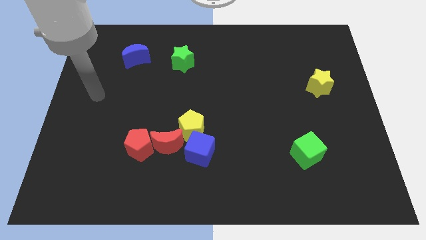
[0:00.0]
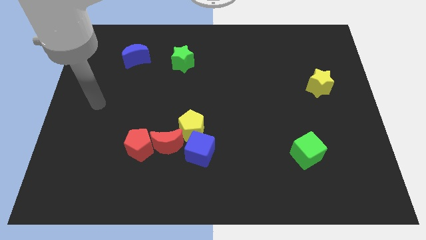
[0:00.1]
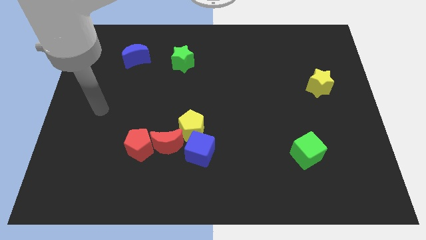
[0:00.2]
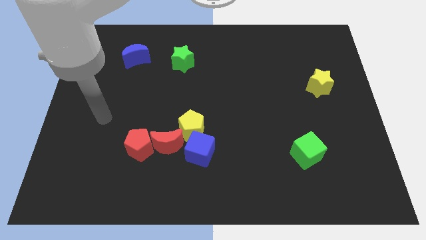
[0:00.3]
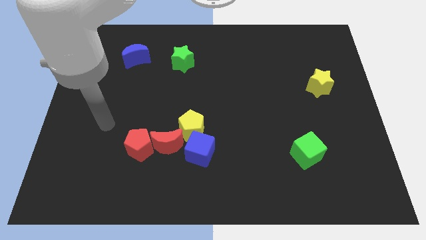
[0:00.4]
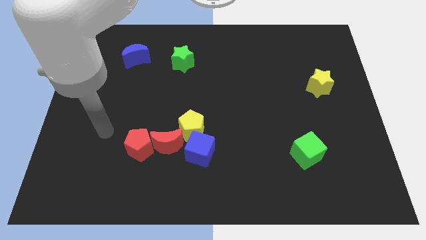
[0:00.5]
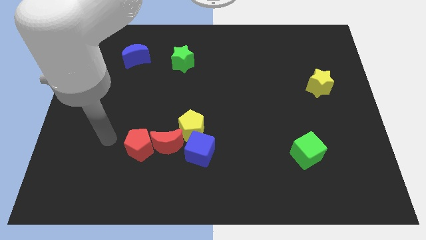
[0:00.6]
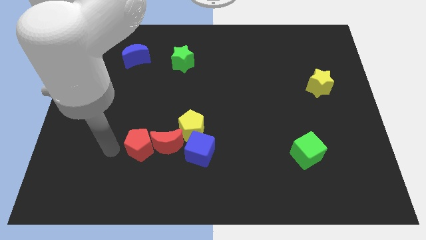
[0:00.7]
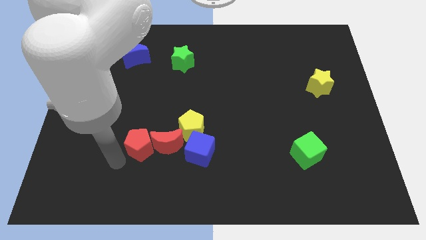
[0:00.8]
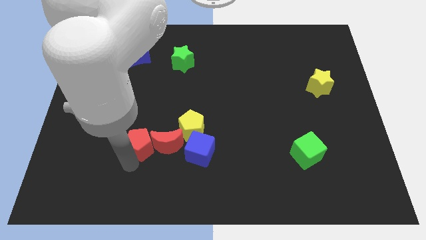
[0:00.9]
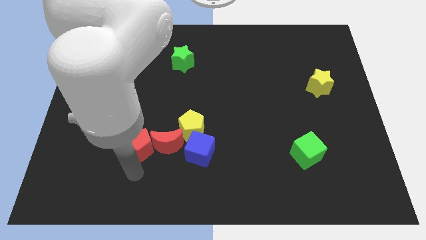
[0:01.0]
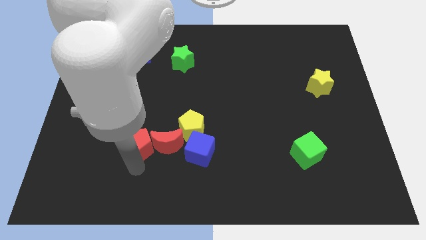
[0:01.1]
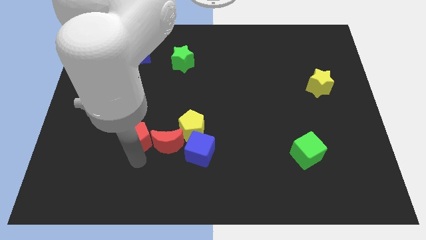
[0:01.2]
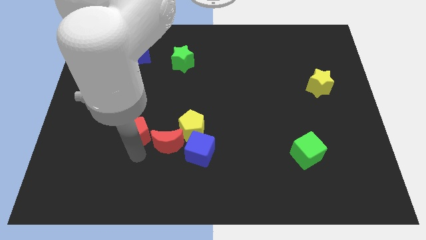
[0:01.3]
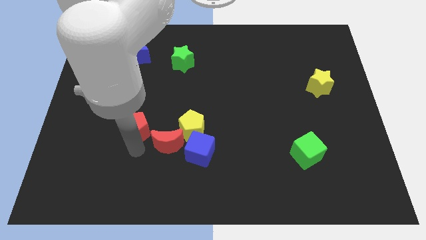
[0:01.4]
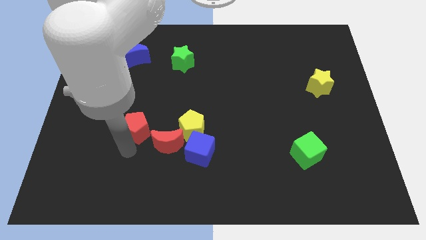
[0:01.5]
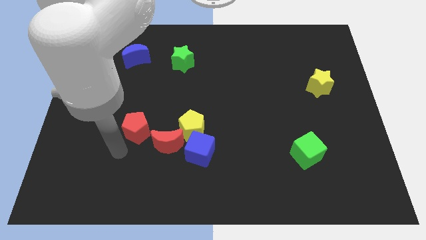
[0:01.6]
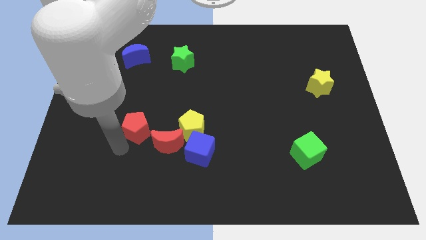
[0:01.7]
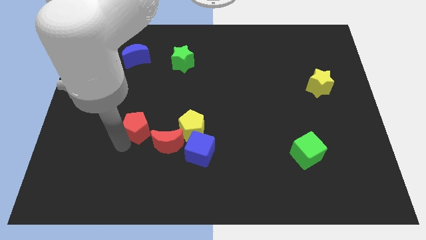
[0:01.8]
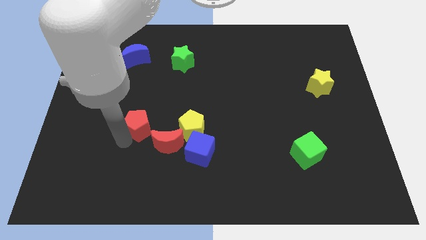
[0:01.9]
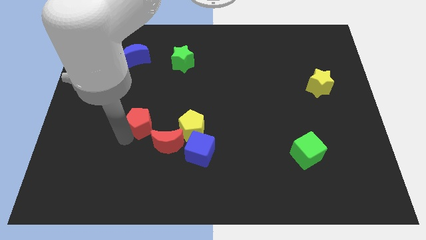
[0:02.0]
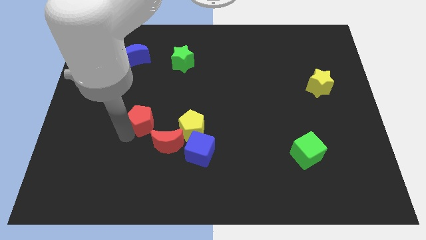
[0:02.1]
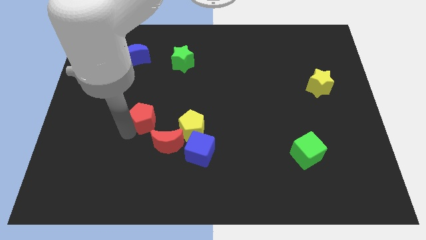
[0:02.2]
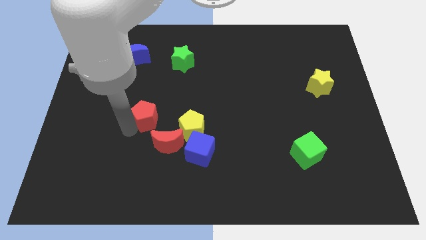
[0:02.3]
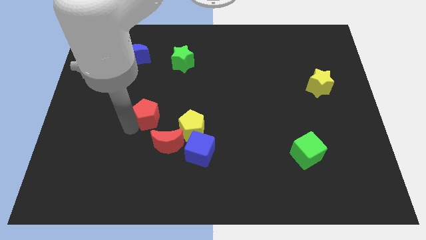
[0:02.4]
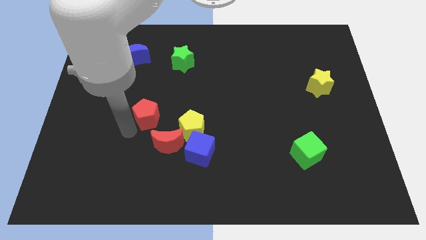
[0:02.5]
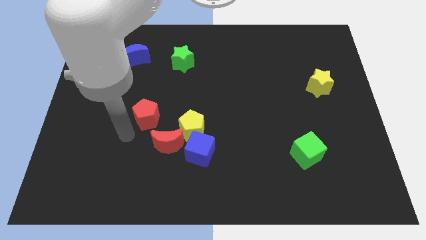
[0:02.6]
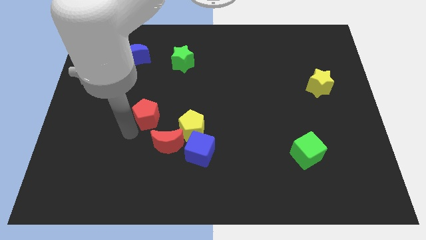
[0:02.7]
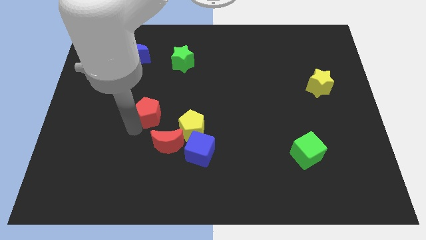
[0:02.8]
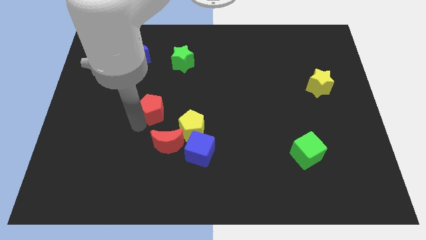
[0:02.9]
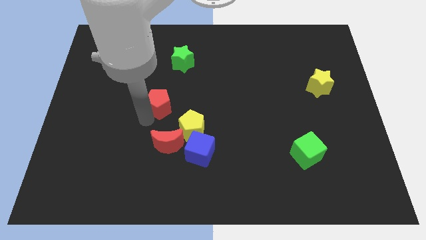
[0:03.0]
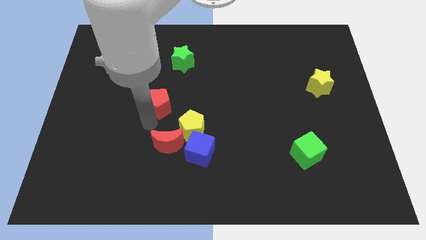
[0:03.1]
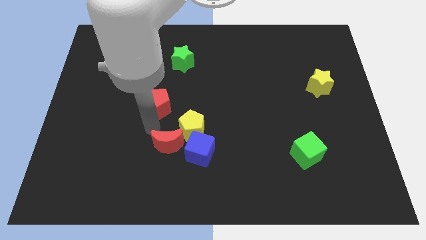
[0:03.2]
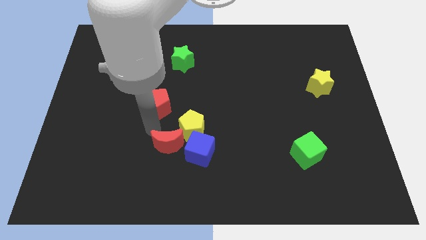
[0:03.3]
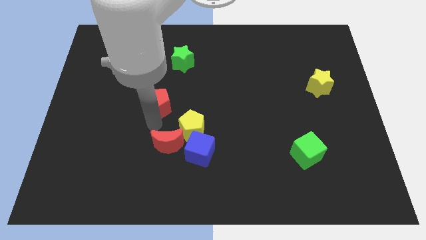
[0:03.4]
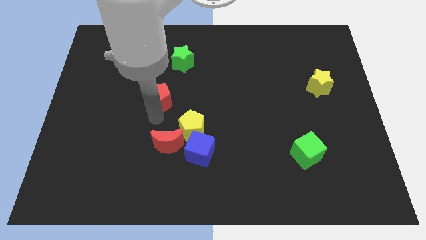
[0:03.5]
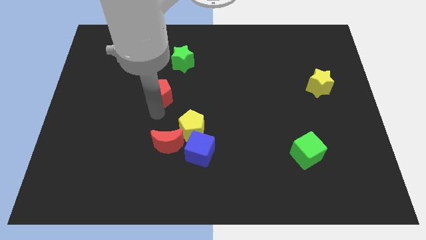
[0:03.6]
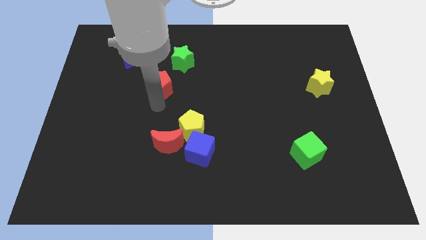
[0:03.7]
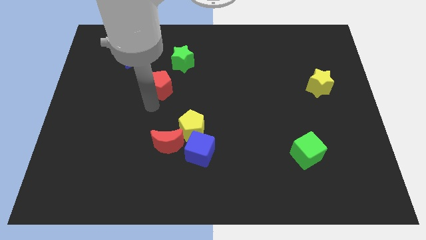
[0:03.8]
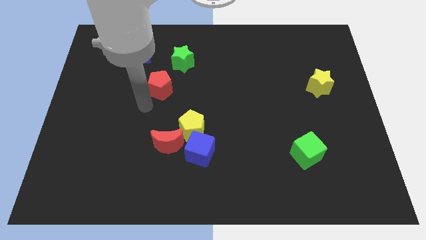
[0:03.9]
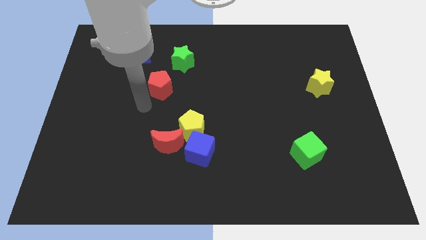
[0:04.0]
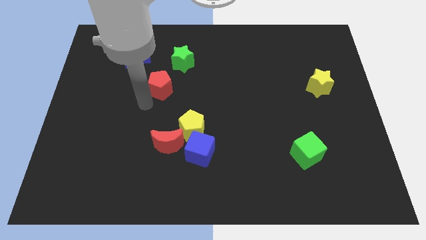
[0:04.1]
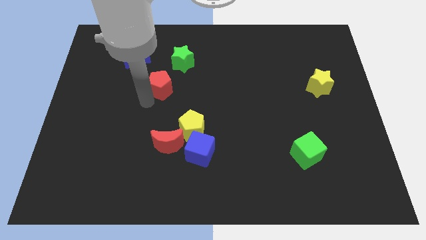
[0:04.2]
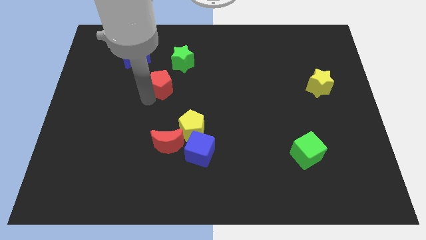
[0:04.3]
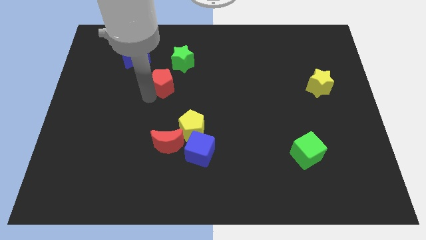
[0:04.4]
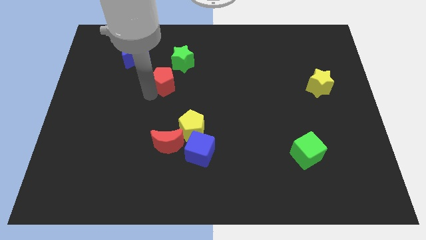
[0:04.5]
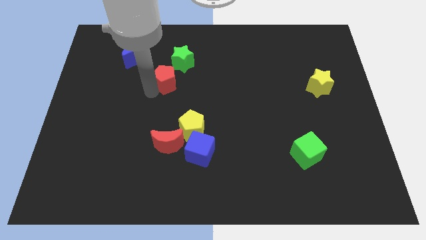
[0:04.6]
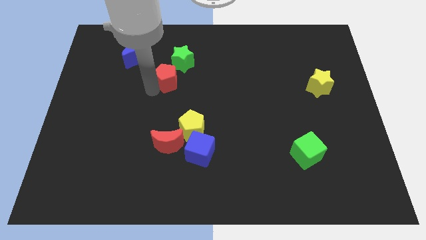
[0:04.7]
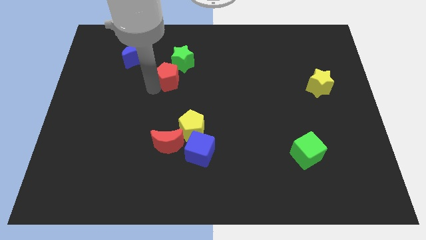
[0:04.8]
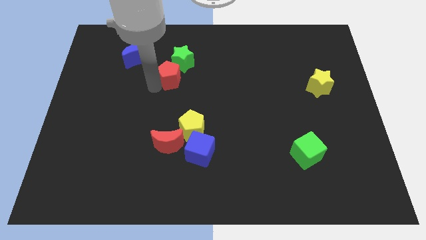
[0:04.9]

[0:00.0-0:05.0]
slide the red pentagon towards the green star

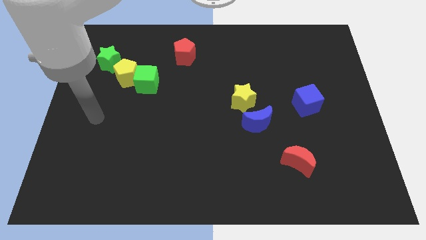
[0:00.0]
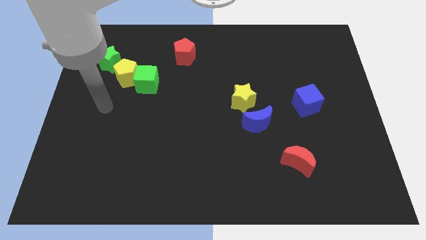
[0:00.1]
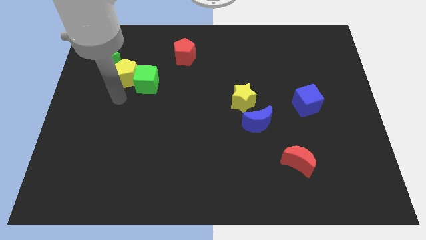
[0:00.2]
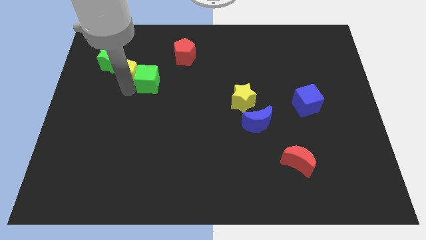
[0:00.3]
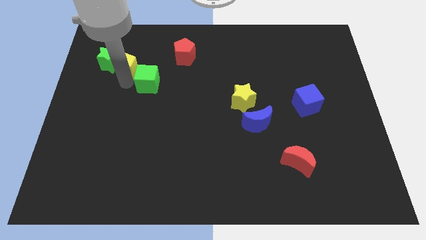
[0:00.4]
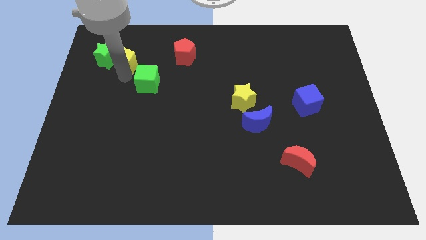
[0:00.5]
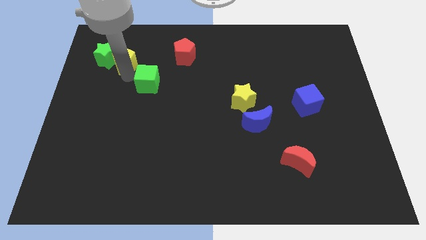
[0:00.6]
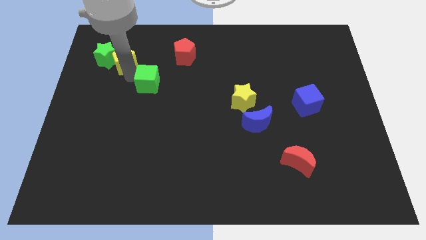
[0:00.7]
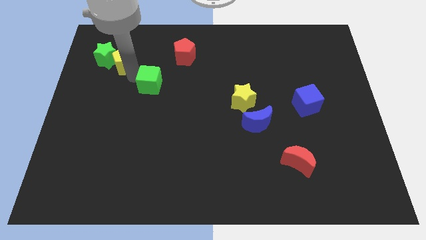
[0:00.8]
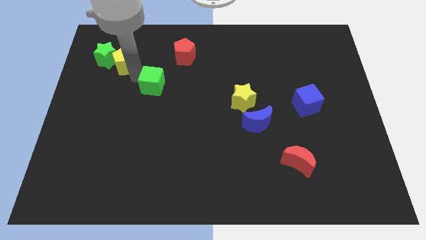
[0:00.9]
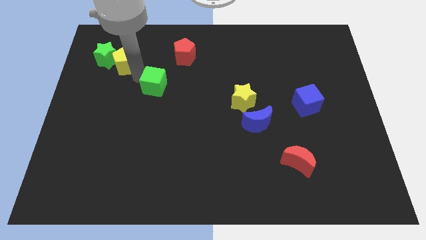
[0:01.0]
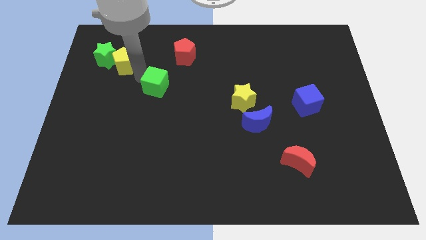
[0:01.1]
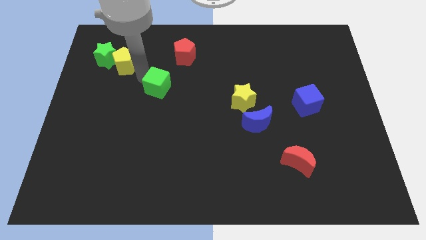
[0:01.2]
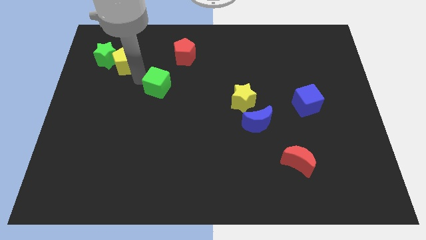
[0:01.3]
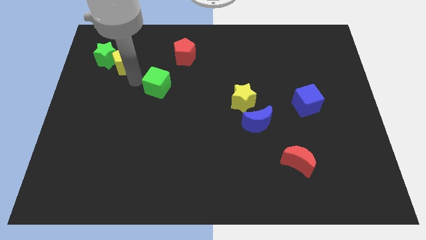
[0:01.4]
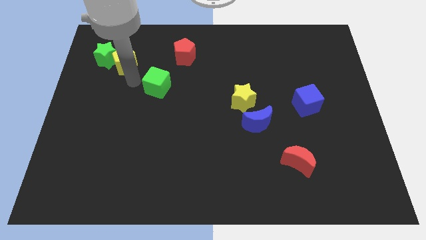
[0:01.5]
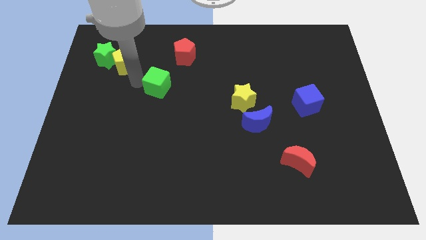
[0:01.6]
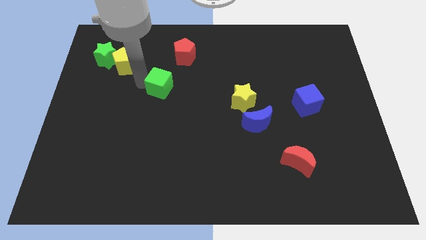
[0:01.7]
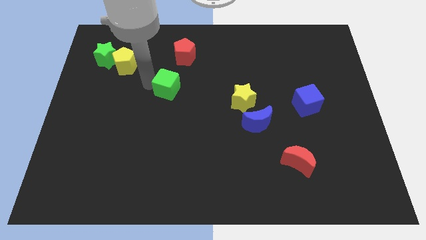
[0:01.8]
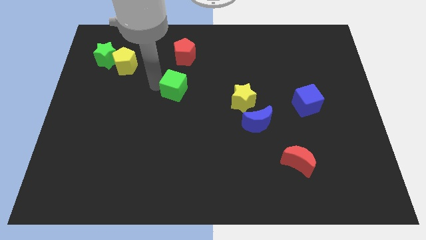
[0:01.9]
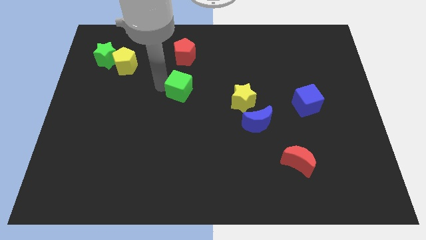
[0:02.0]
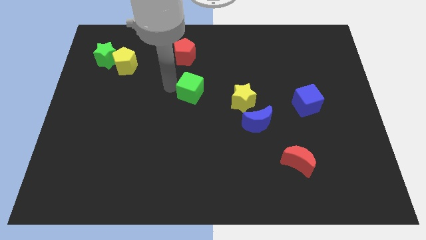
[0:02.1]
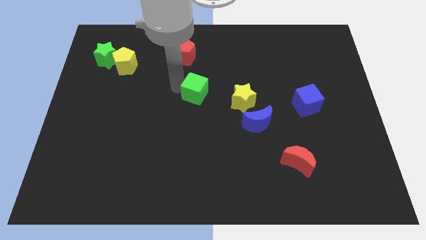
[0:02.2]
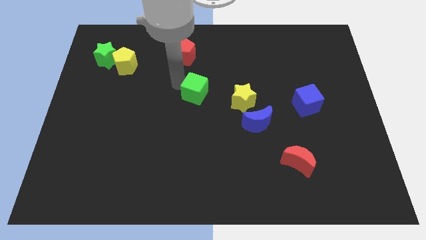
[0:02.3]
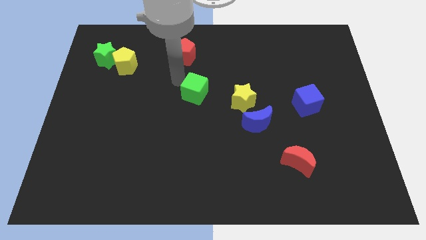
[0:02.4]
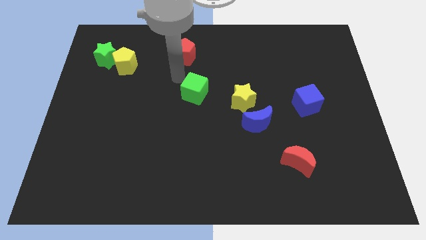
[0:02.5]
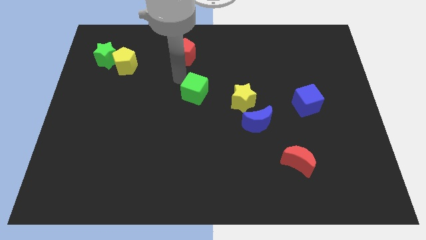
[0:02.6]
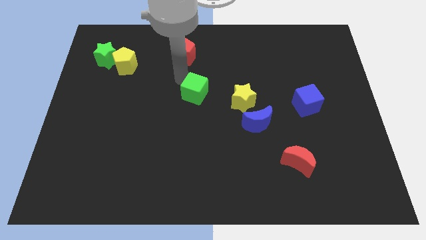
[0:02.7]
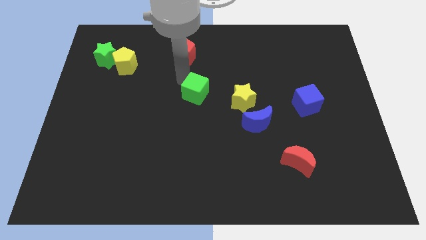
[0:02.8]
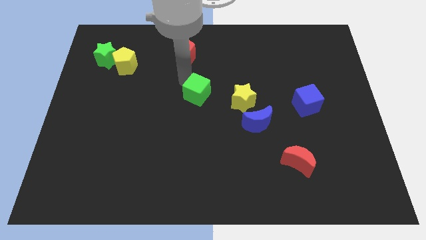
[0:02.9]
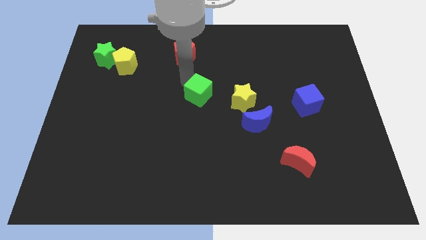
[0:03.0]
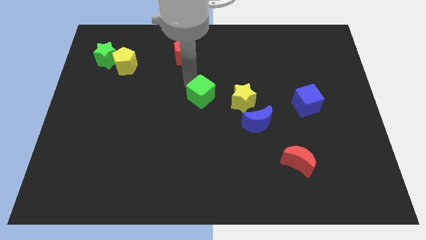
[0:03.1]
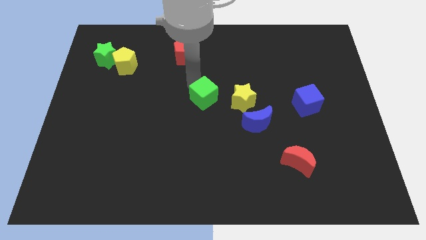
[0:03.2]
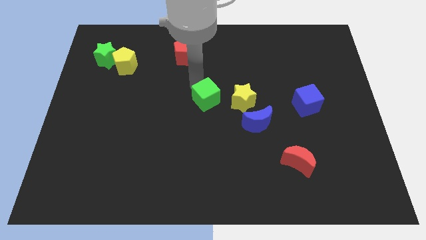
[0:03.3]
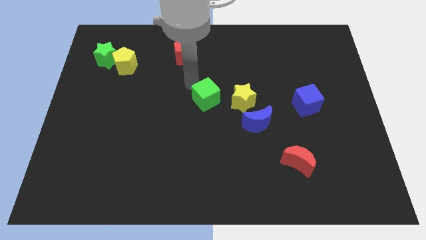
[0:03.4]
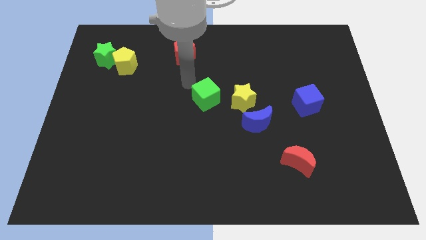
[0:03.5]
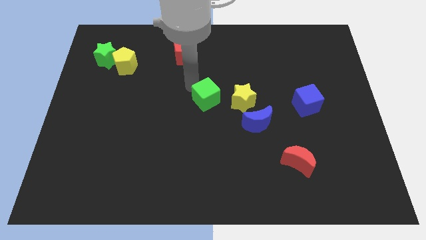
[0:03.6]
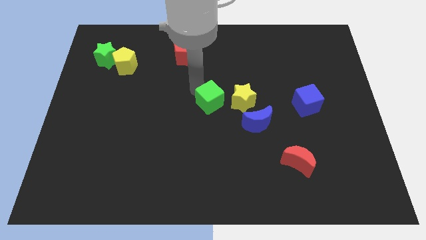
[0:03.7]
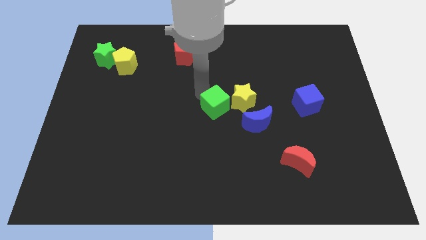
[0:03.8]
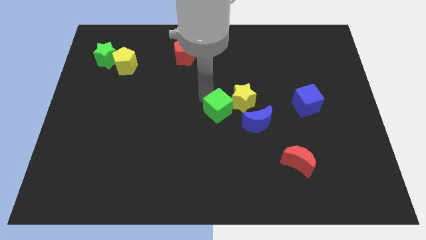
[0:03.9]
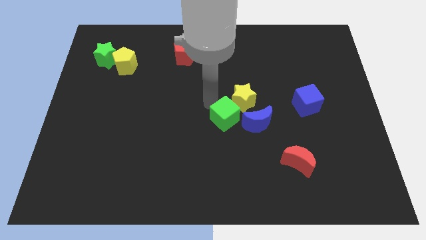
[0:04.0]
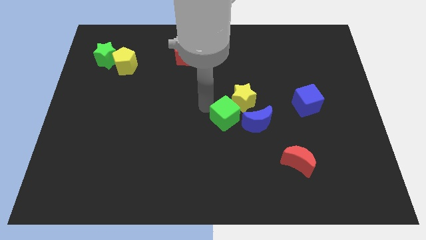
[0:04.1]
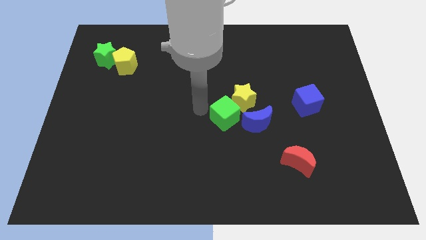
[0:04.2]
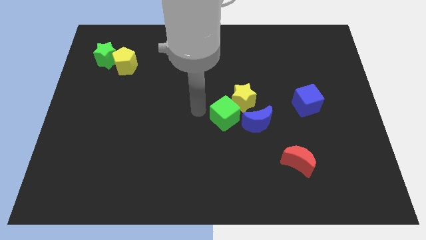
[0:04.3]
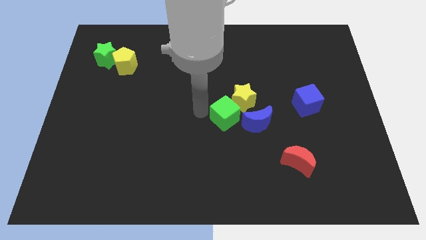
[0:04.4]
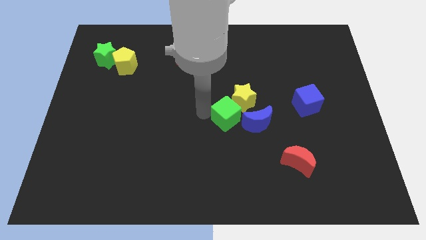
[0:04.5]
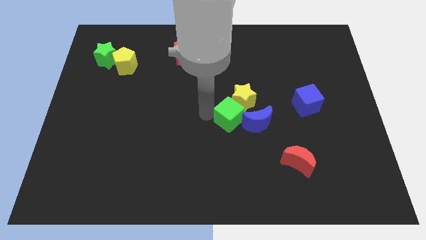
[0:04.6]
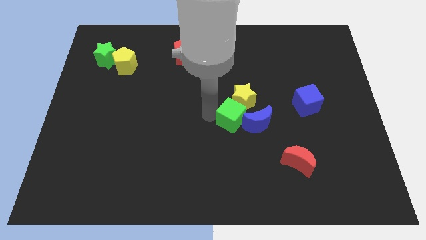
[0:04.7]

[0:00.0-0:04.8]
push the green cube to the blue moon
